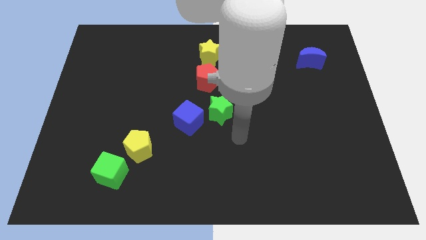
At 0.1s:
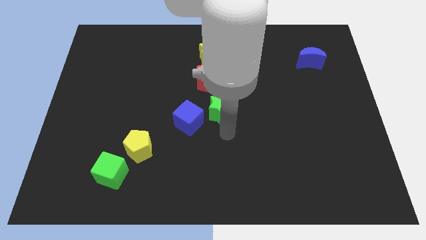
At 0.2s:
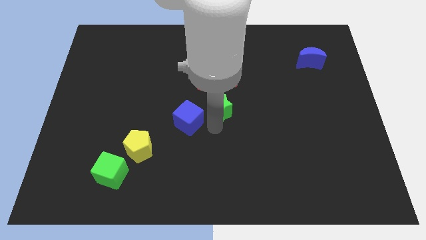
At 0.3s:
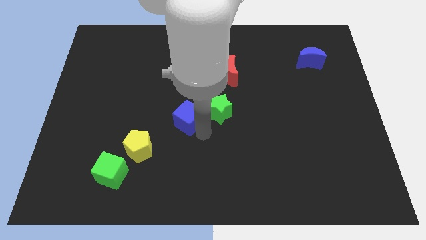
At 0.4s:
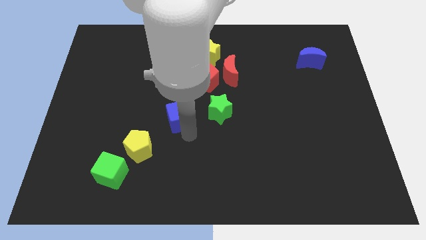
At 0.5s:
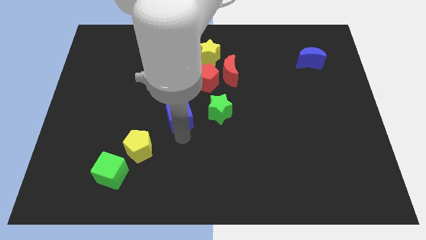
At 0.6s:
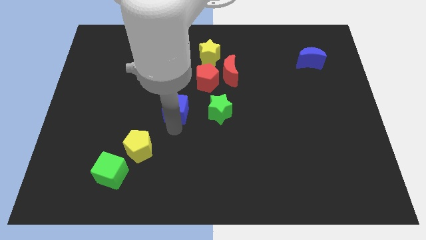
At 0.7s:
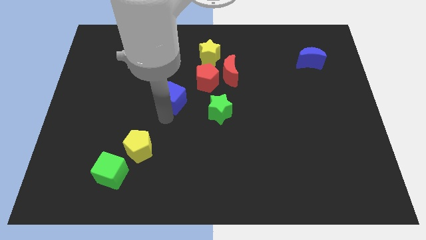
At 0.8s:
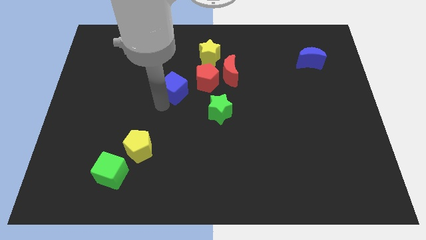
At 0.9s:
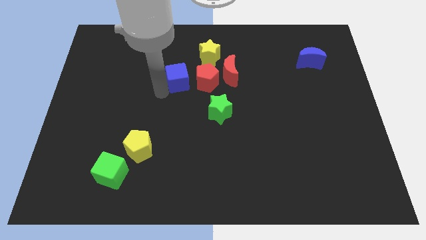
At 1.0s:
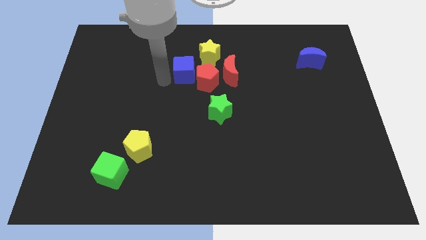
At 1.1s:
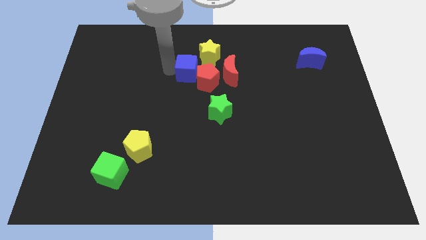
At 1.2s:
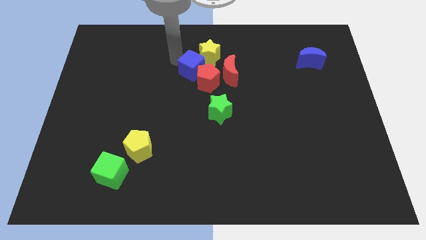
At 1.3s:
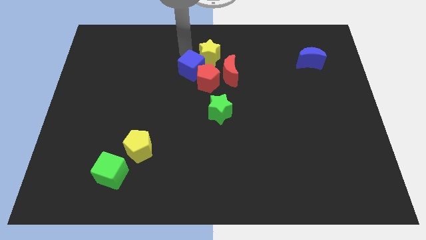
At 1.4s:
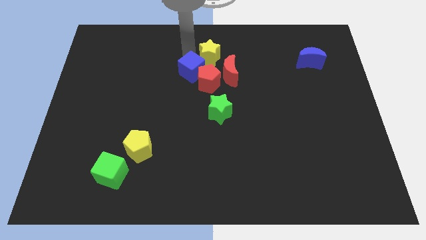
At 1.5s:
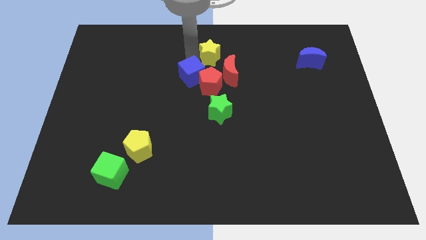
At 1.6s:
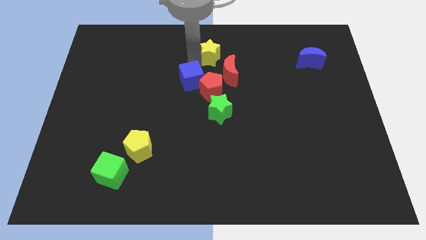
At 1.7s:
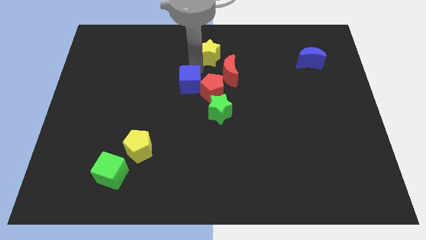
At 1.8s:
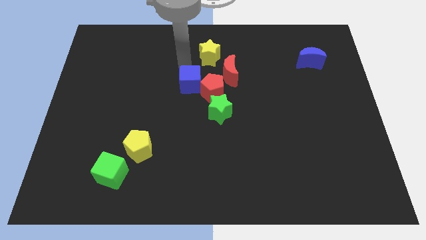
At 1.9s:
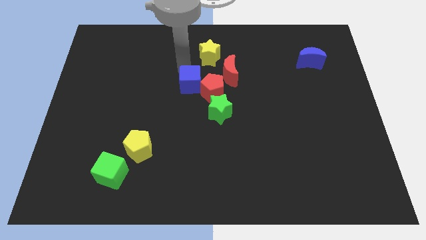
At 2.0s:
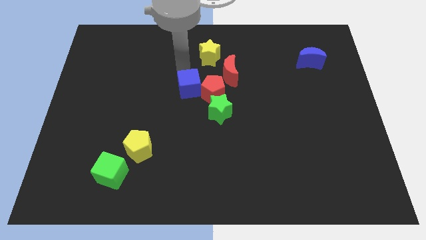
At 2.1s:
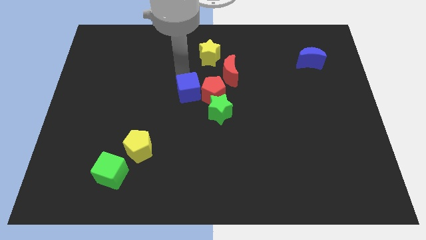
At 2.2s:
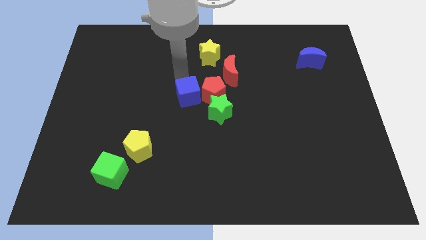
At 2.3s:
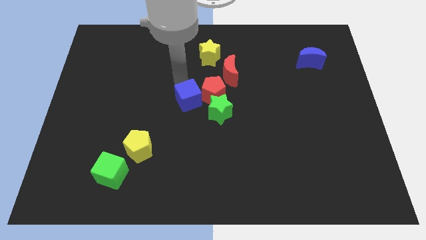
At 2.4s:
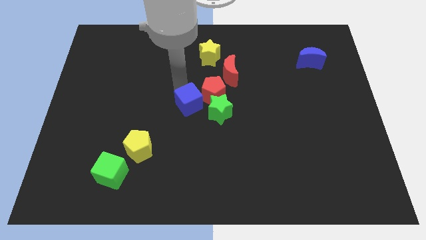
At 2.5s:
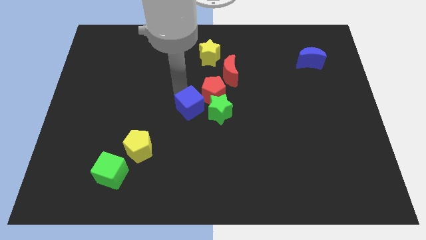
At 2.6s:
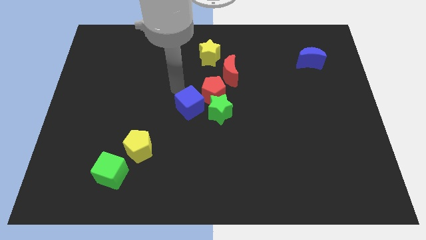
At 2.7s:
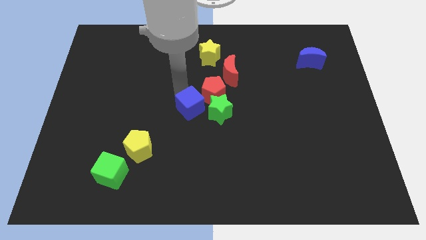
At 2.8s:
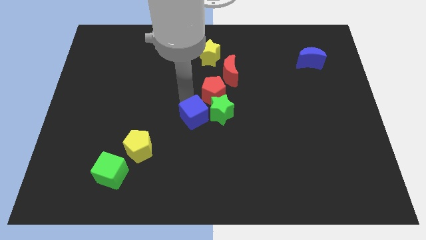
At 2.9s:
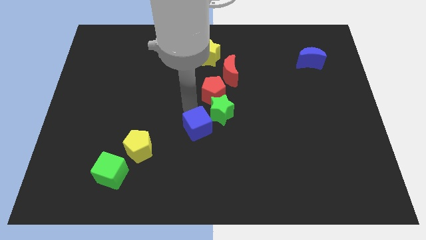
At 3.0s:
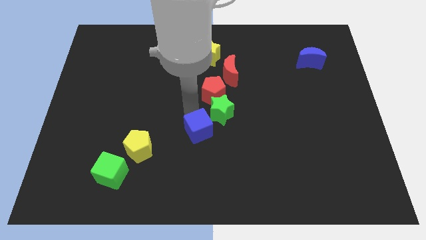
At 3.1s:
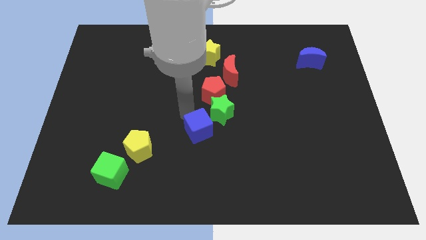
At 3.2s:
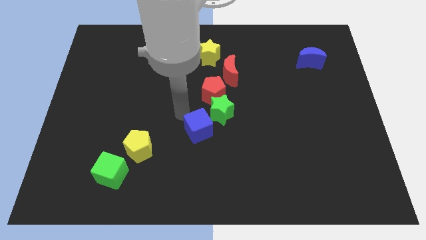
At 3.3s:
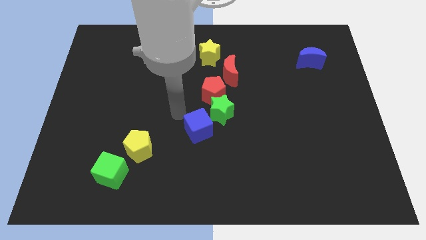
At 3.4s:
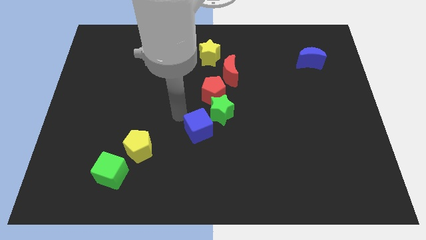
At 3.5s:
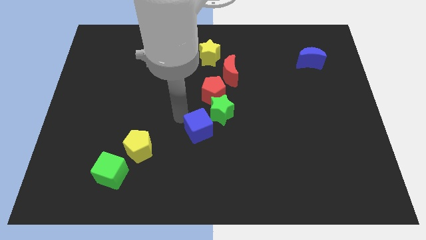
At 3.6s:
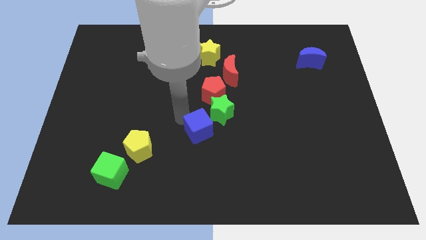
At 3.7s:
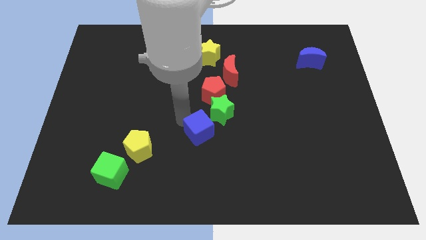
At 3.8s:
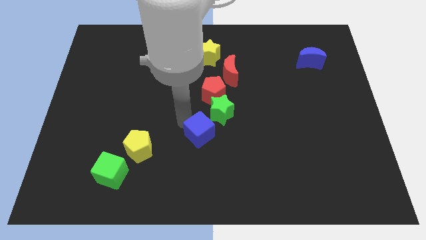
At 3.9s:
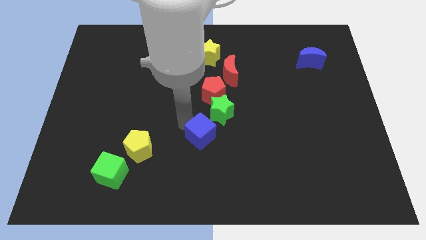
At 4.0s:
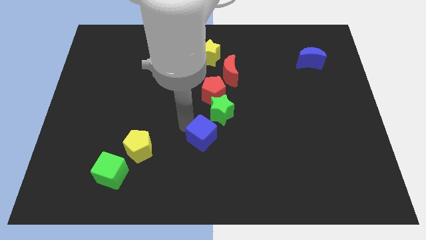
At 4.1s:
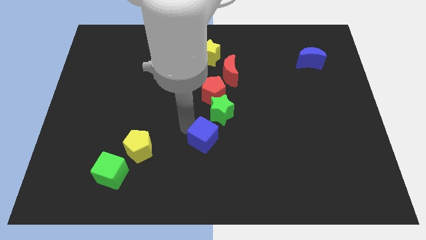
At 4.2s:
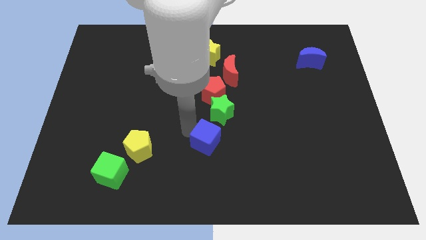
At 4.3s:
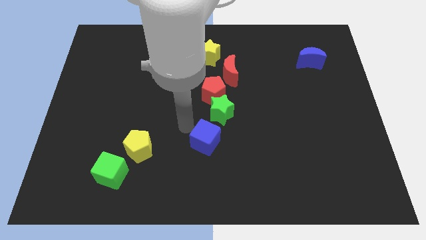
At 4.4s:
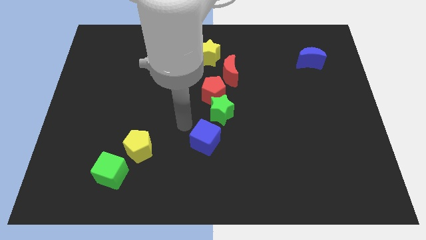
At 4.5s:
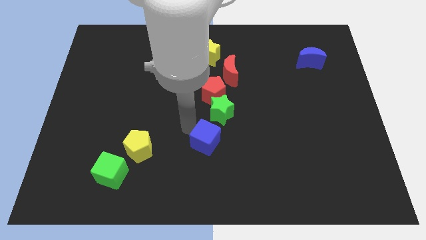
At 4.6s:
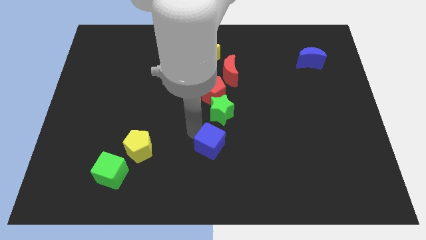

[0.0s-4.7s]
slightly move the blue cube downwards and then to the right

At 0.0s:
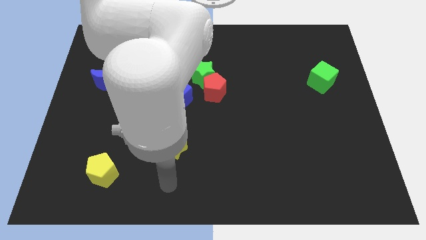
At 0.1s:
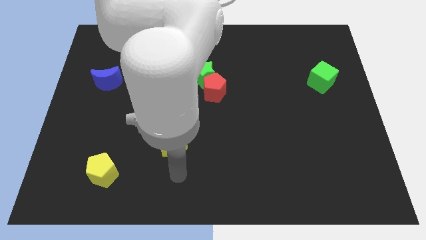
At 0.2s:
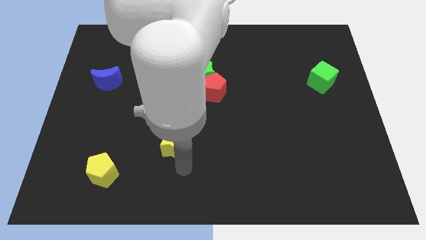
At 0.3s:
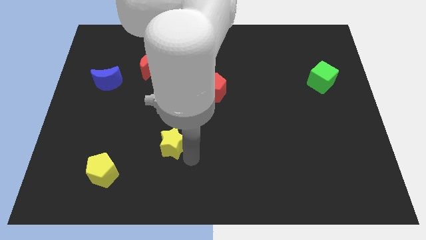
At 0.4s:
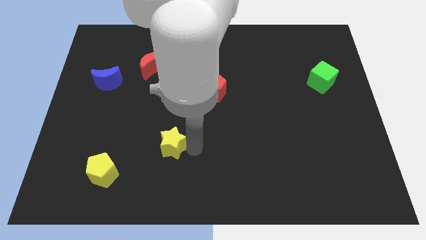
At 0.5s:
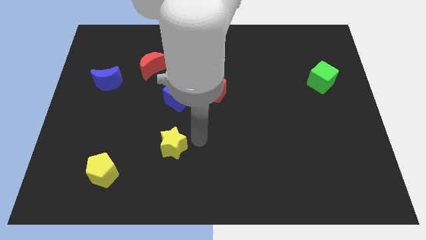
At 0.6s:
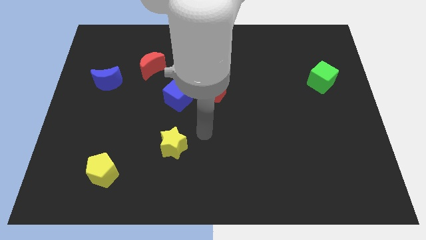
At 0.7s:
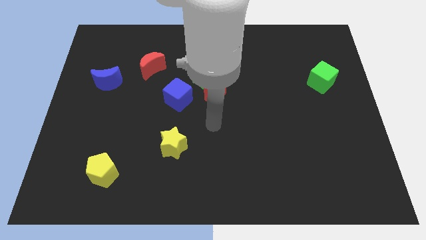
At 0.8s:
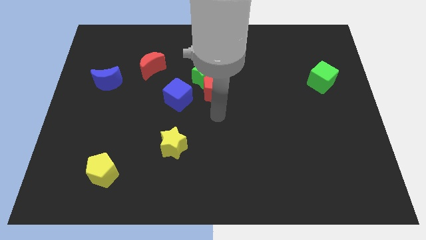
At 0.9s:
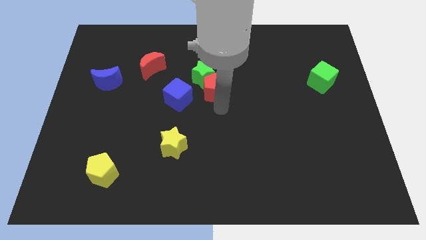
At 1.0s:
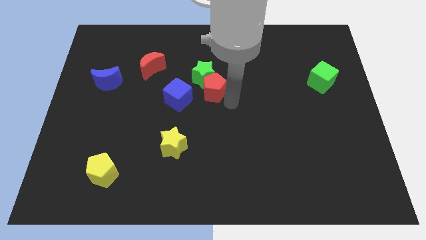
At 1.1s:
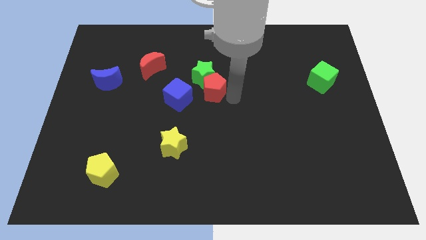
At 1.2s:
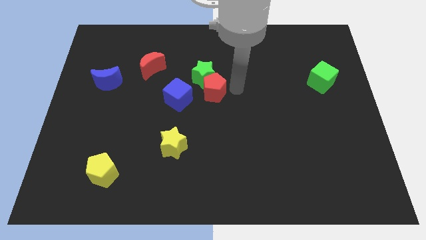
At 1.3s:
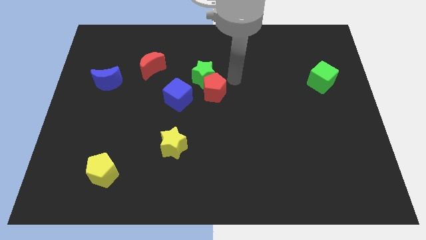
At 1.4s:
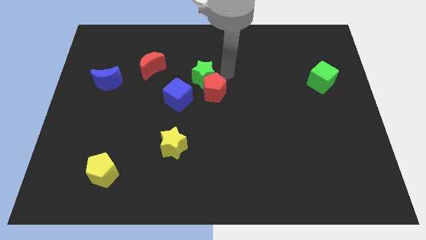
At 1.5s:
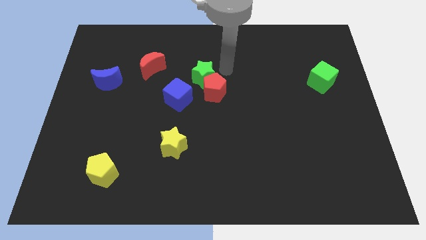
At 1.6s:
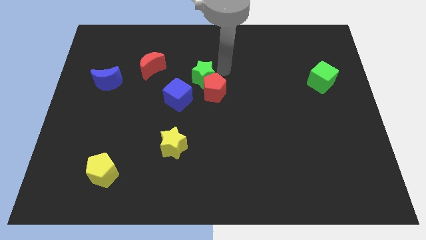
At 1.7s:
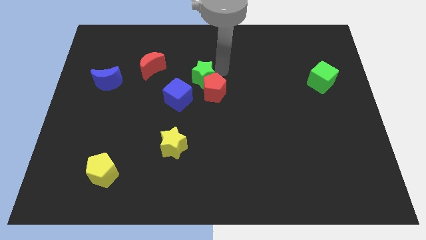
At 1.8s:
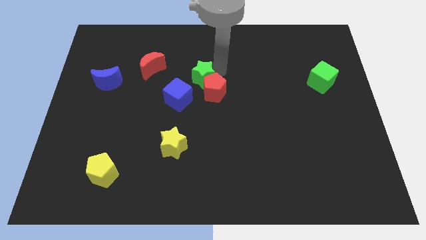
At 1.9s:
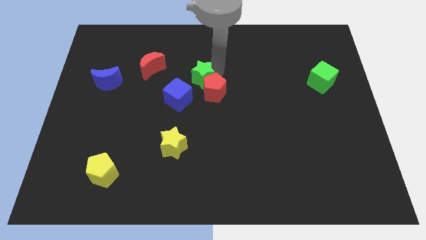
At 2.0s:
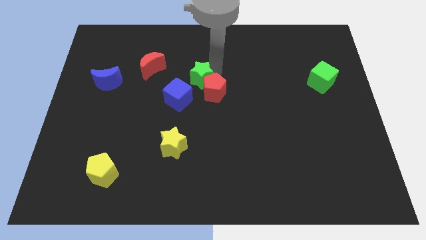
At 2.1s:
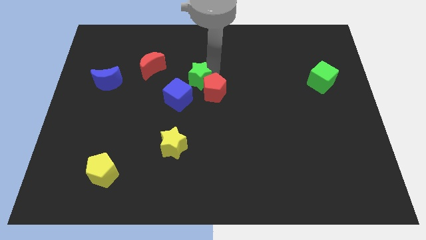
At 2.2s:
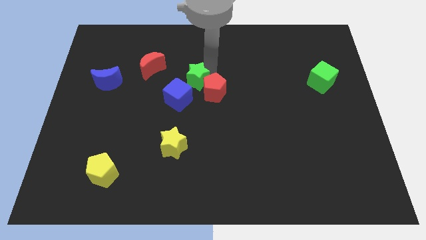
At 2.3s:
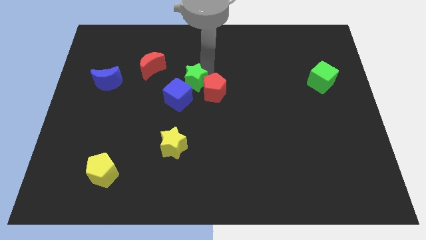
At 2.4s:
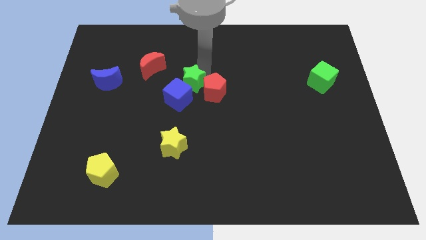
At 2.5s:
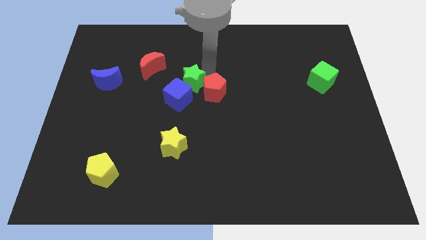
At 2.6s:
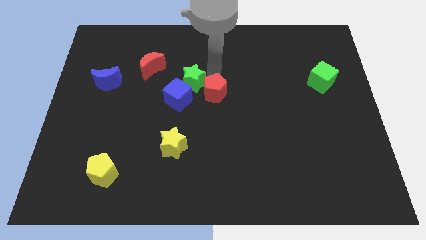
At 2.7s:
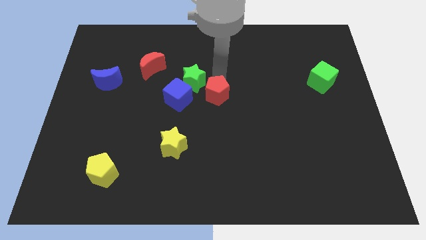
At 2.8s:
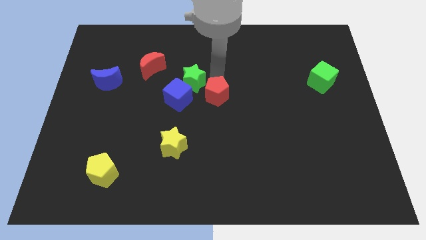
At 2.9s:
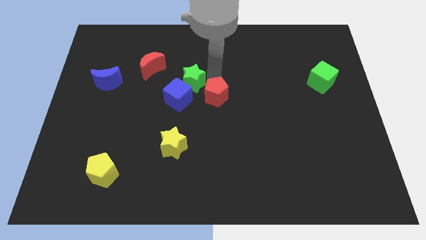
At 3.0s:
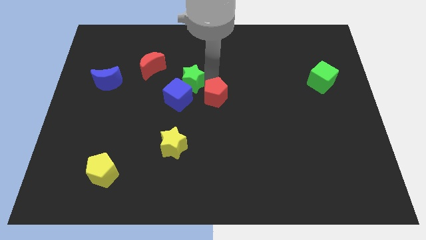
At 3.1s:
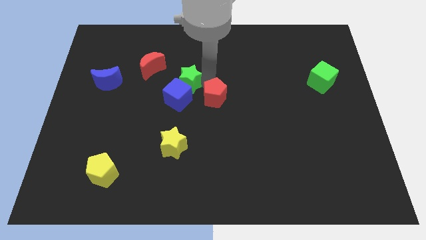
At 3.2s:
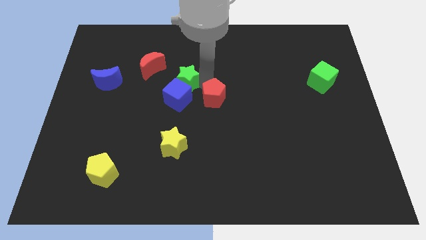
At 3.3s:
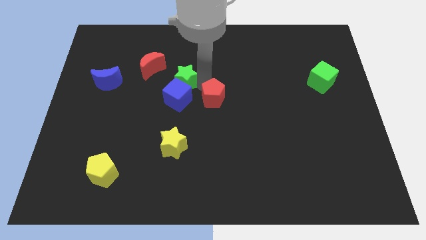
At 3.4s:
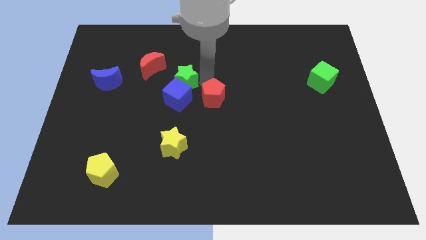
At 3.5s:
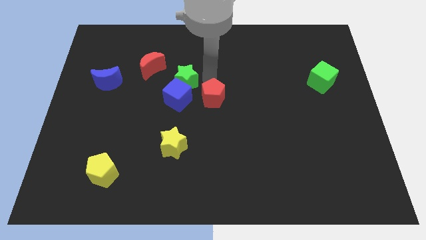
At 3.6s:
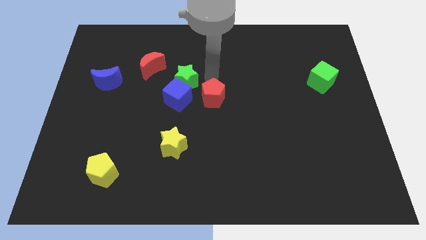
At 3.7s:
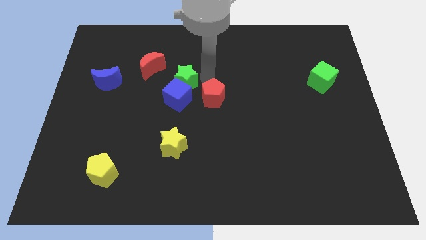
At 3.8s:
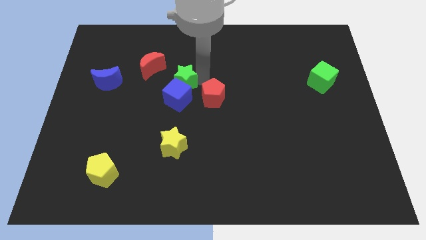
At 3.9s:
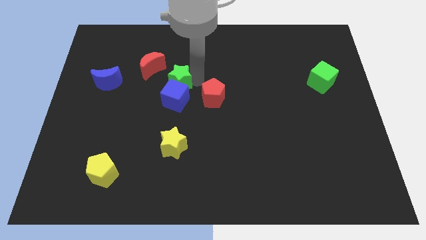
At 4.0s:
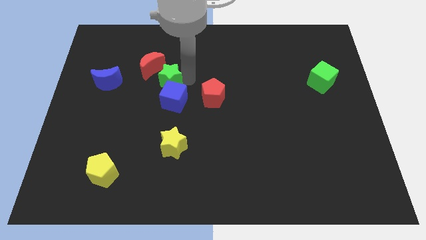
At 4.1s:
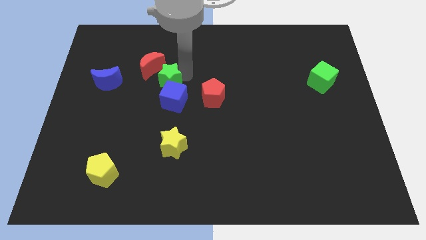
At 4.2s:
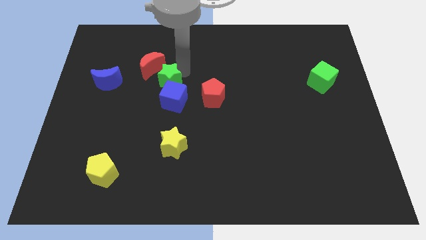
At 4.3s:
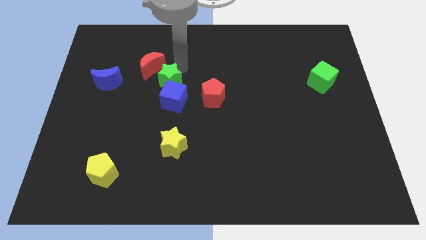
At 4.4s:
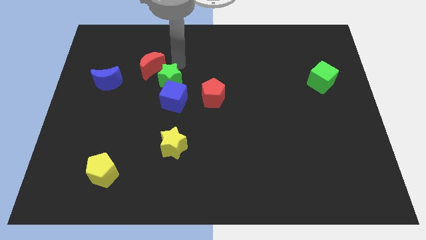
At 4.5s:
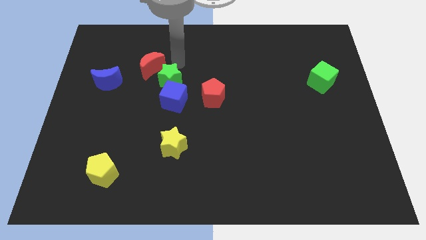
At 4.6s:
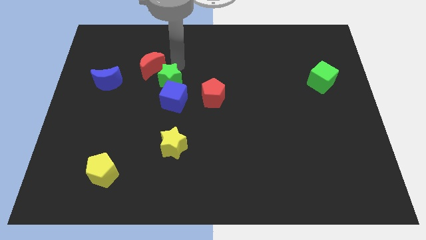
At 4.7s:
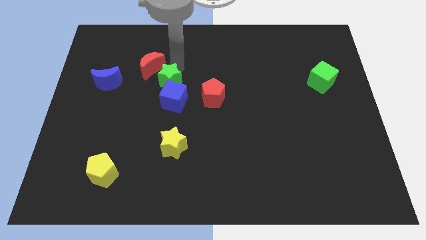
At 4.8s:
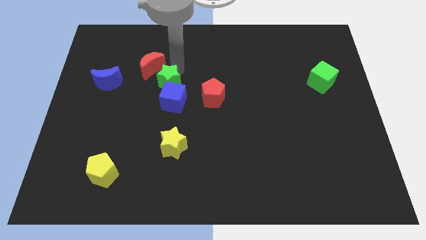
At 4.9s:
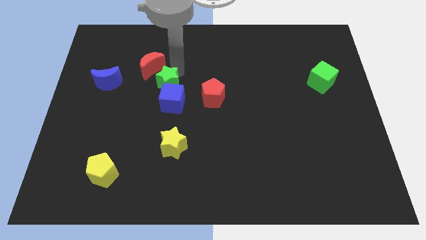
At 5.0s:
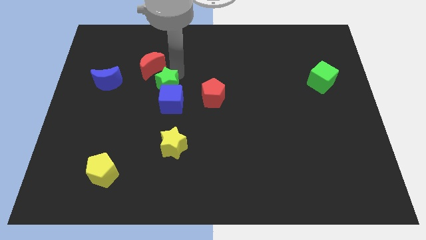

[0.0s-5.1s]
slightly slide the green star down and to the left
